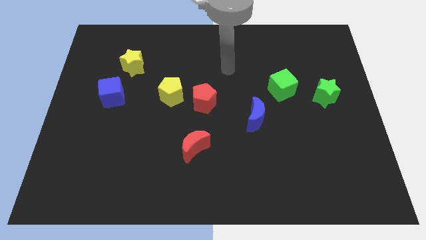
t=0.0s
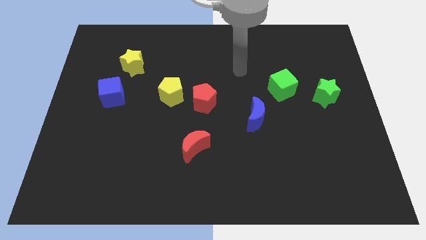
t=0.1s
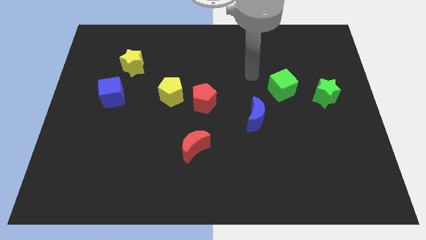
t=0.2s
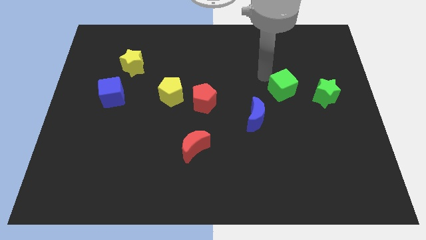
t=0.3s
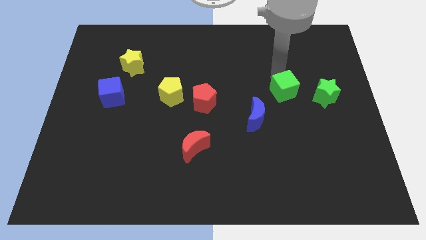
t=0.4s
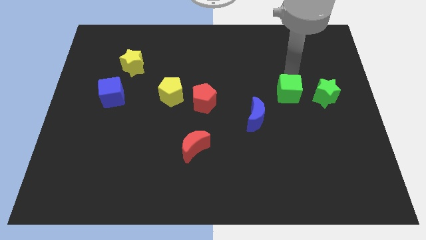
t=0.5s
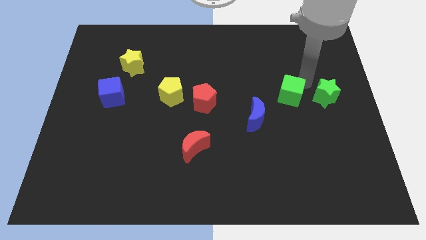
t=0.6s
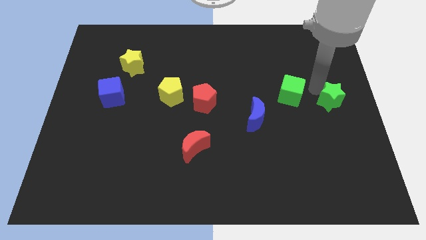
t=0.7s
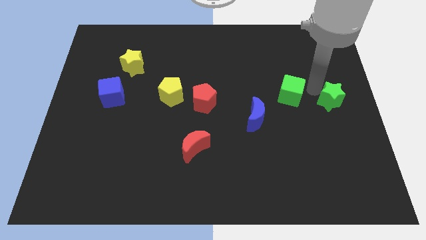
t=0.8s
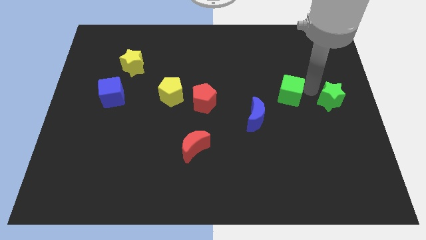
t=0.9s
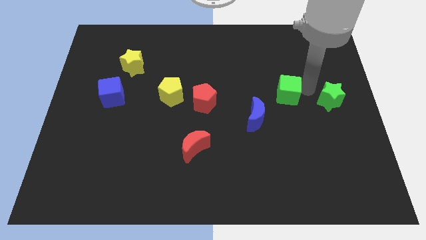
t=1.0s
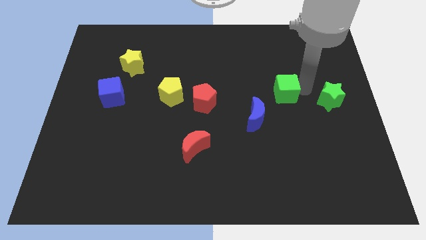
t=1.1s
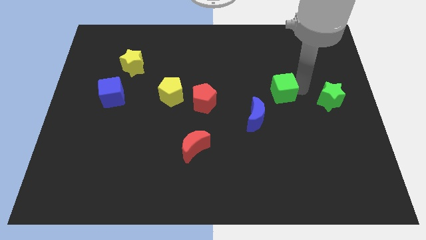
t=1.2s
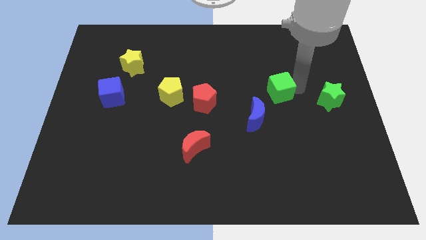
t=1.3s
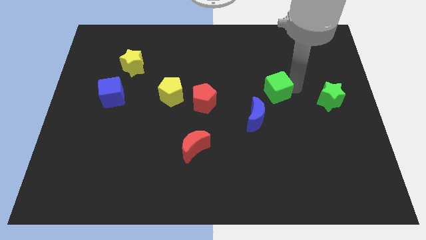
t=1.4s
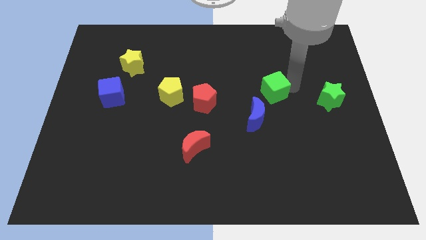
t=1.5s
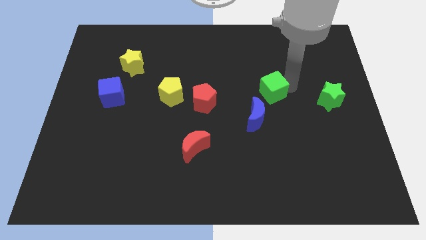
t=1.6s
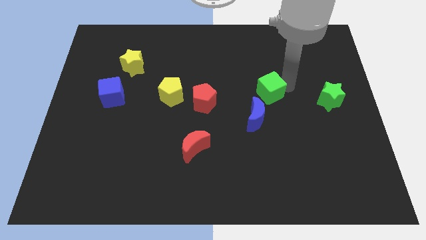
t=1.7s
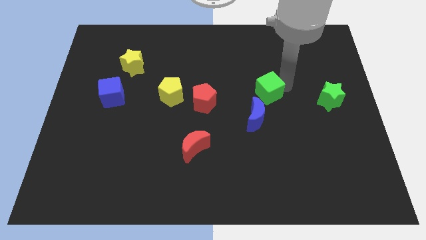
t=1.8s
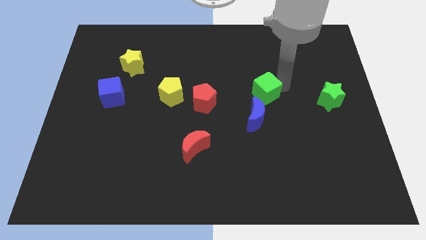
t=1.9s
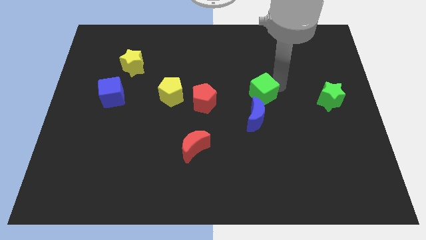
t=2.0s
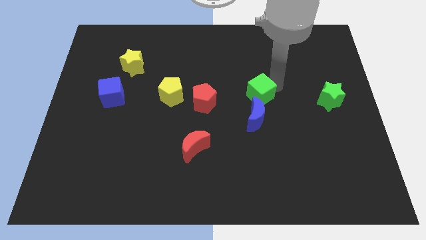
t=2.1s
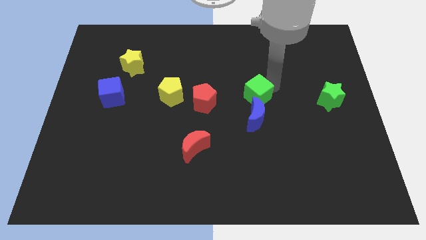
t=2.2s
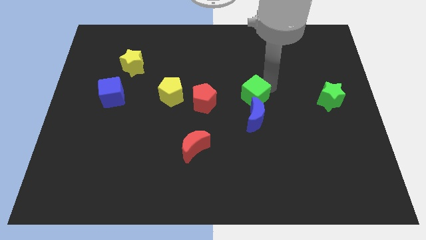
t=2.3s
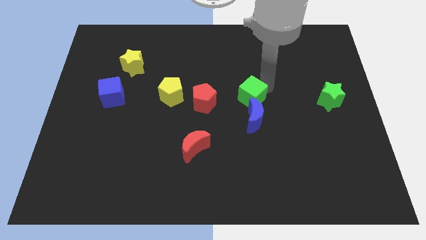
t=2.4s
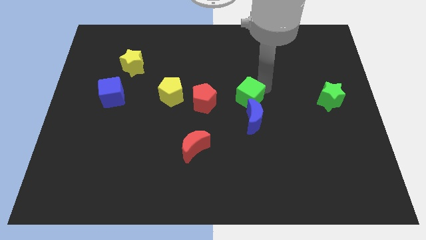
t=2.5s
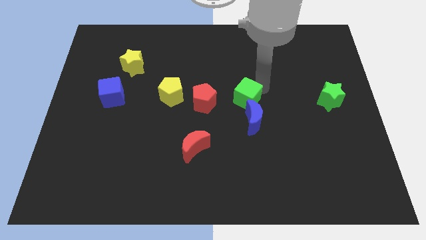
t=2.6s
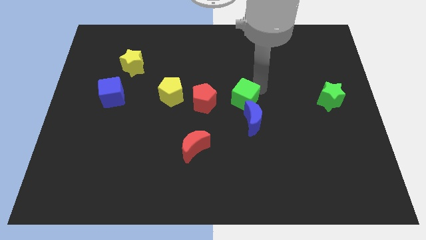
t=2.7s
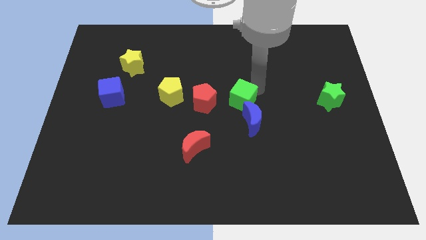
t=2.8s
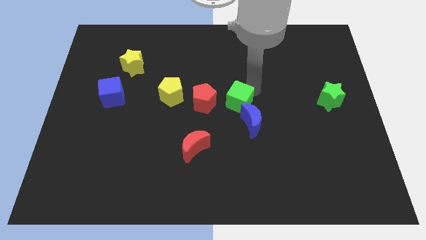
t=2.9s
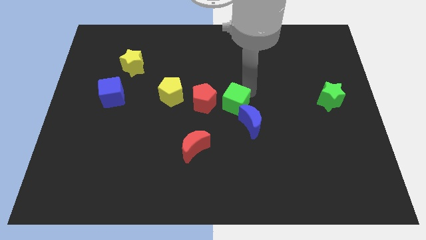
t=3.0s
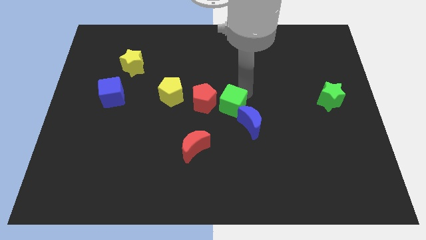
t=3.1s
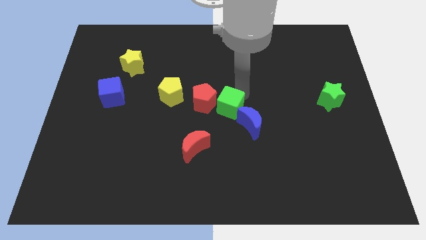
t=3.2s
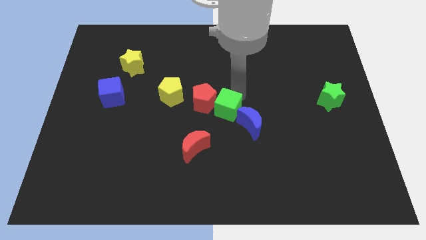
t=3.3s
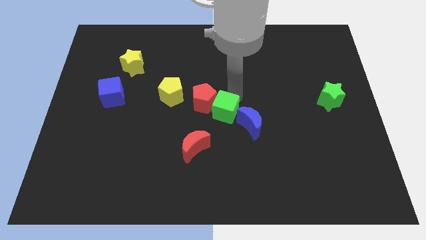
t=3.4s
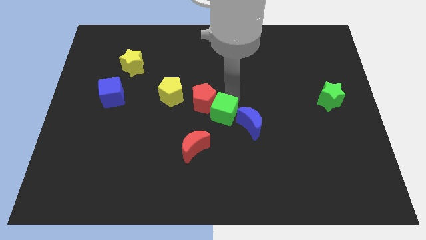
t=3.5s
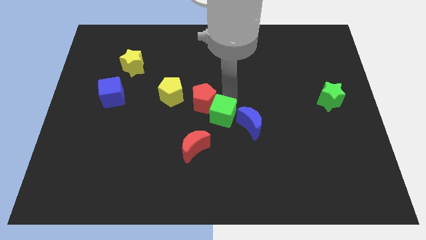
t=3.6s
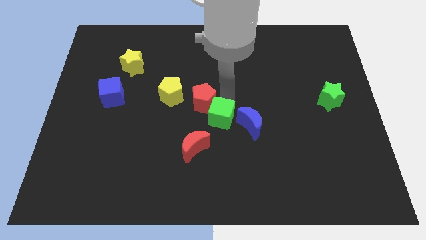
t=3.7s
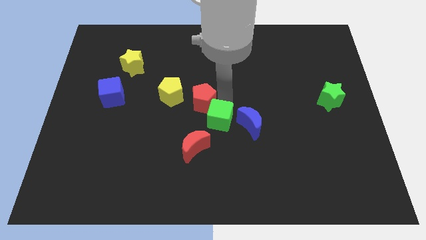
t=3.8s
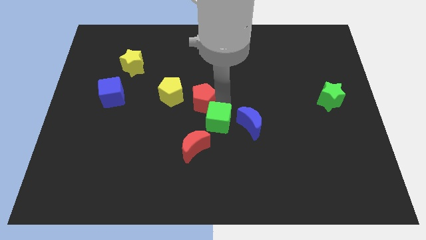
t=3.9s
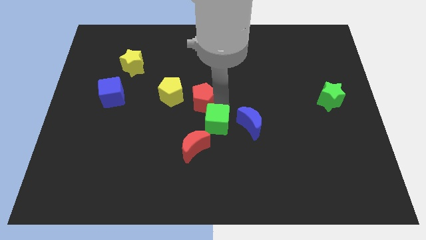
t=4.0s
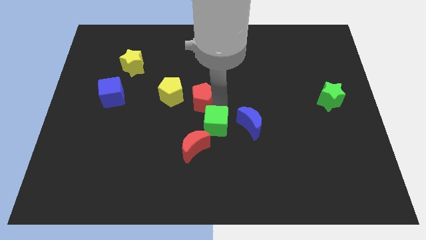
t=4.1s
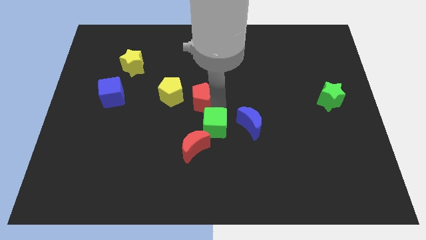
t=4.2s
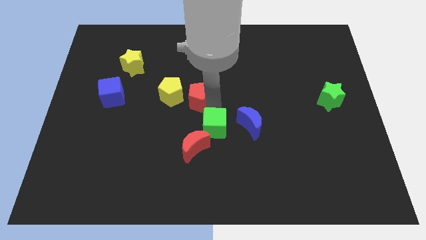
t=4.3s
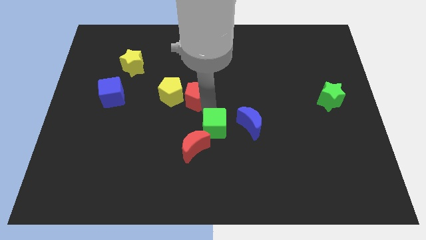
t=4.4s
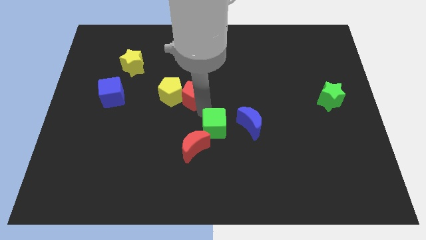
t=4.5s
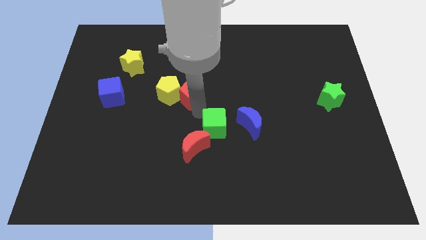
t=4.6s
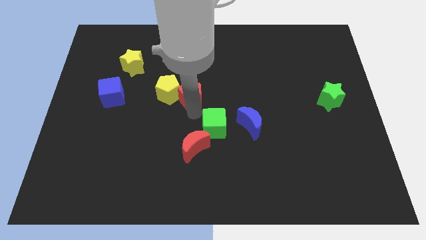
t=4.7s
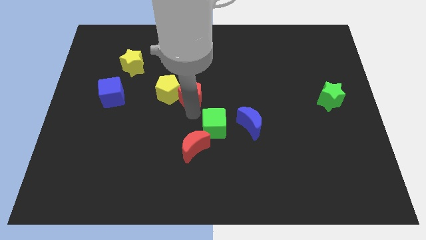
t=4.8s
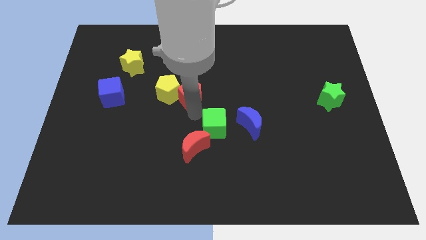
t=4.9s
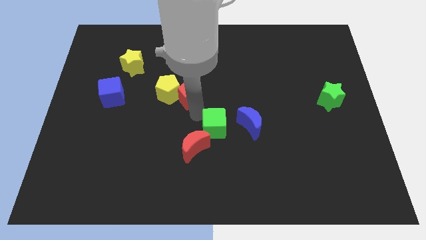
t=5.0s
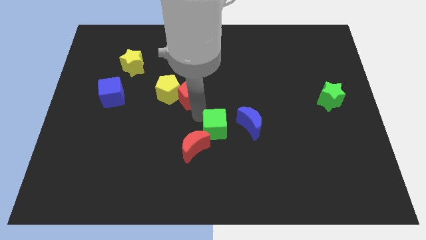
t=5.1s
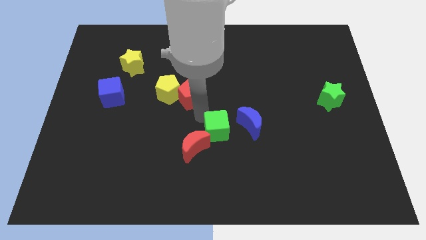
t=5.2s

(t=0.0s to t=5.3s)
move the green cube downwards and then to the left

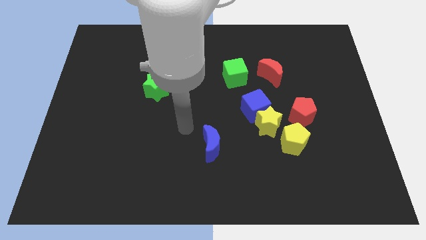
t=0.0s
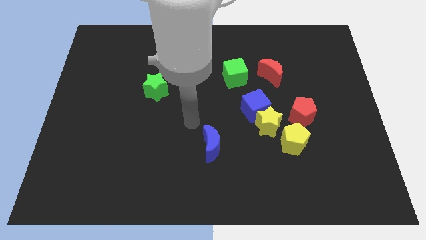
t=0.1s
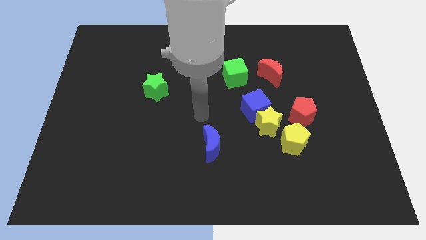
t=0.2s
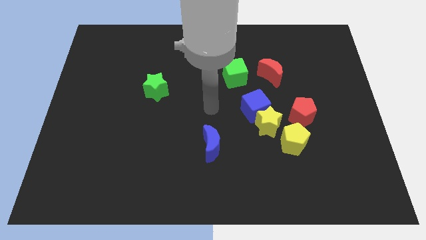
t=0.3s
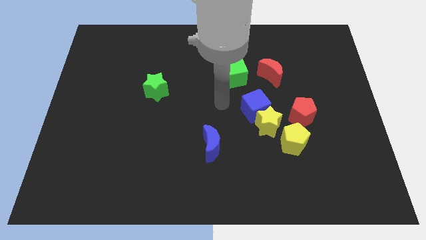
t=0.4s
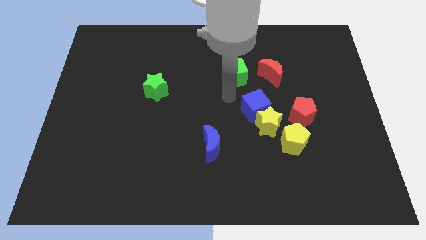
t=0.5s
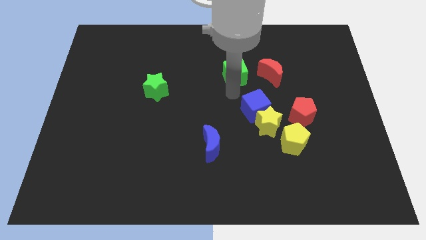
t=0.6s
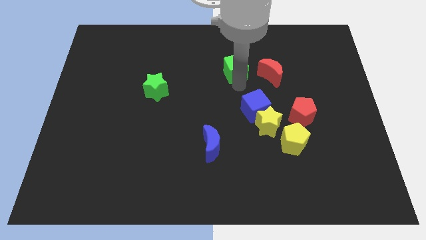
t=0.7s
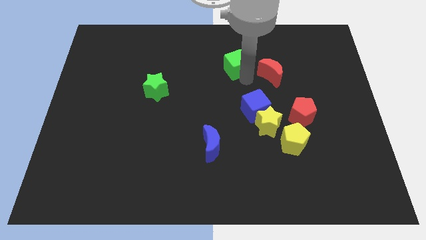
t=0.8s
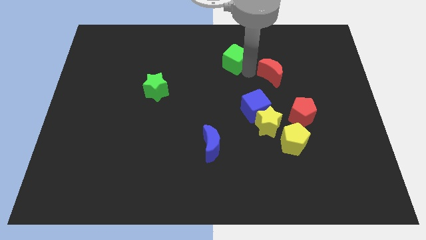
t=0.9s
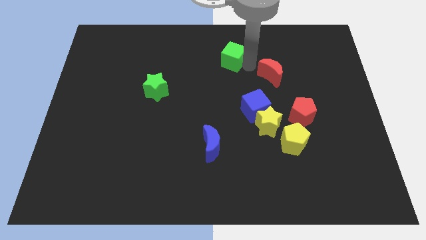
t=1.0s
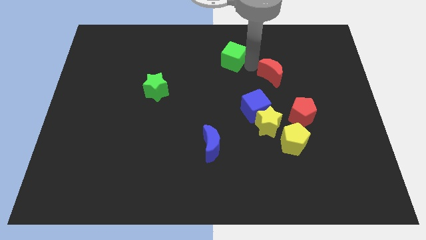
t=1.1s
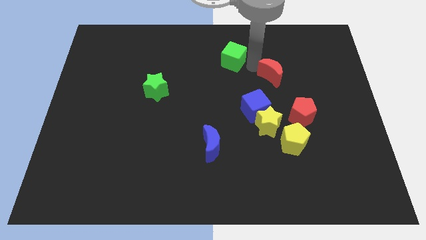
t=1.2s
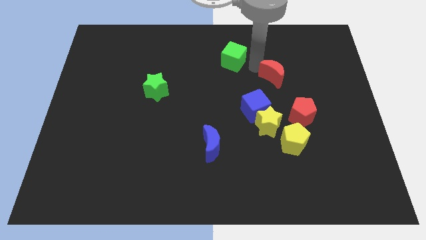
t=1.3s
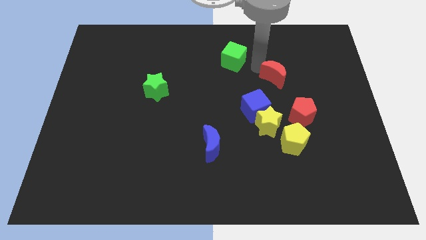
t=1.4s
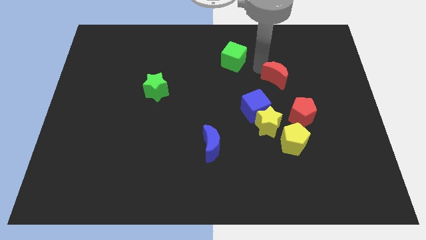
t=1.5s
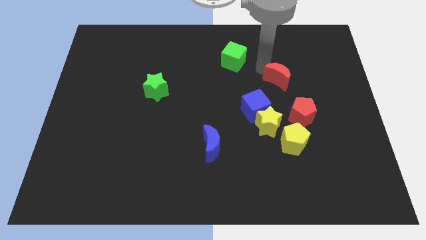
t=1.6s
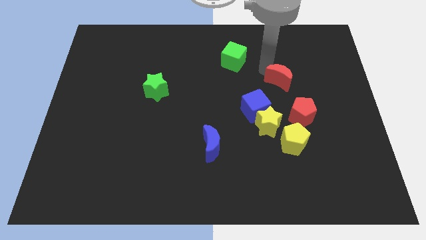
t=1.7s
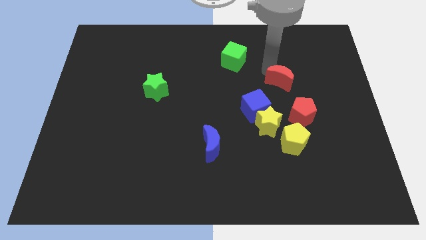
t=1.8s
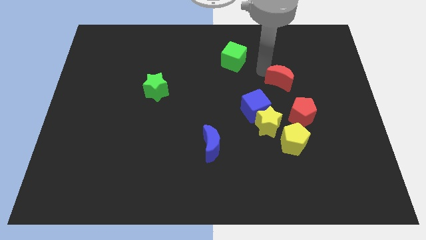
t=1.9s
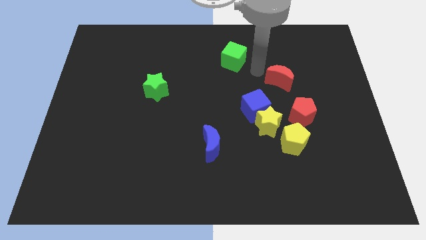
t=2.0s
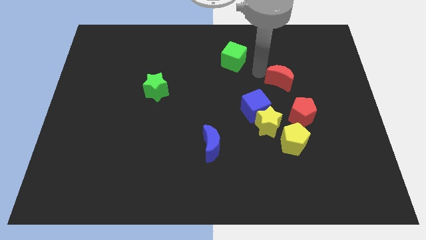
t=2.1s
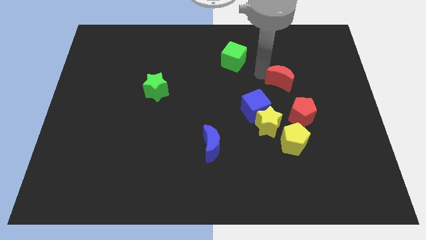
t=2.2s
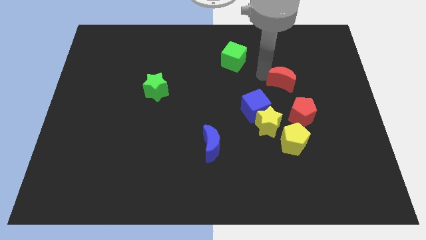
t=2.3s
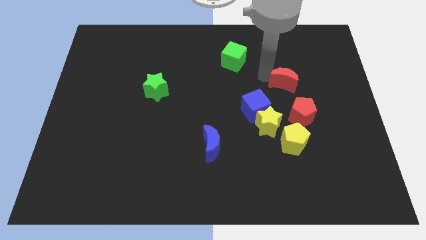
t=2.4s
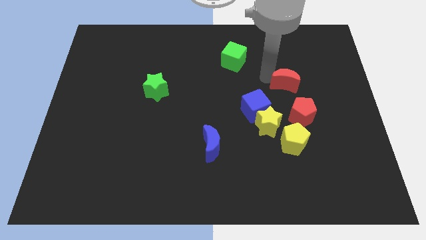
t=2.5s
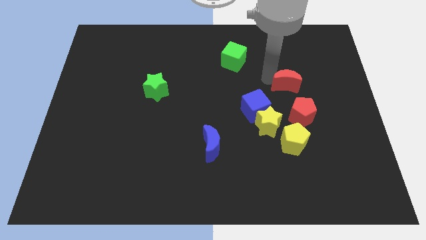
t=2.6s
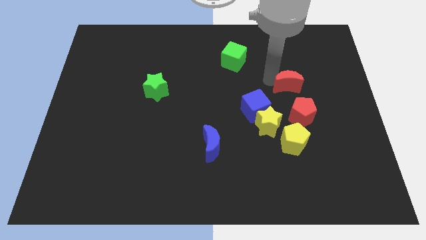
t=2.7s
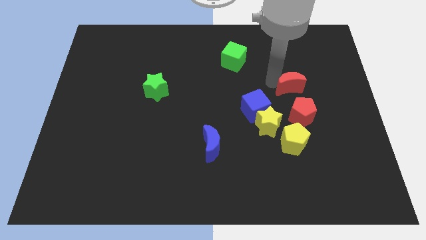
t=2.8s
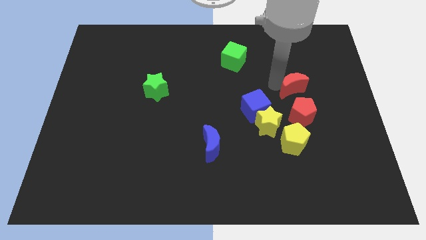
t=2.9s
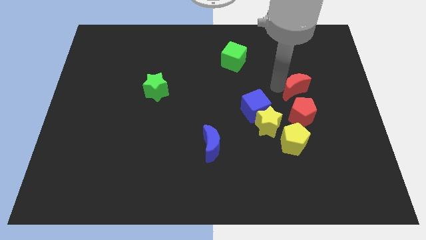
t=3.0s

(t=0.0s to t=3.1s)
slightly slide the red moon down and to the right diagonally
